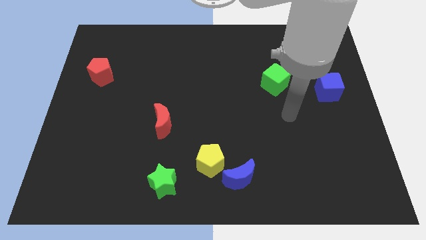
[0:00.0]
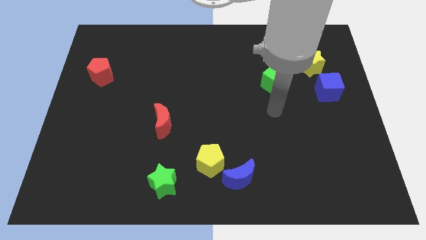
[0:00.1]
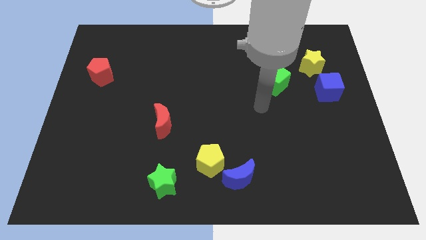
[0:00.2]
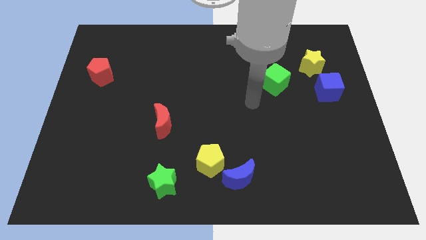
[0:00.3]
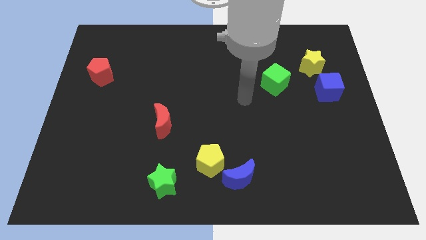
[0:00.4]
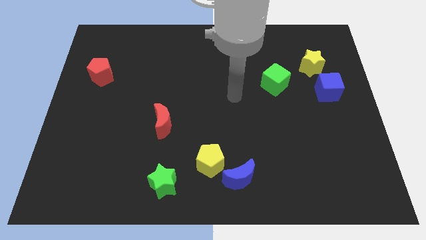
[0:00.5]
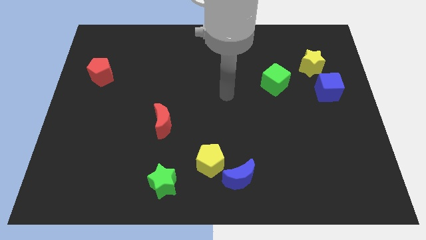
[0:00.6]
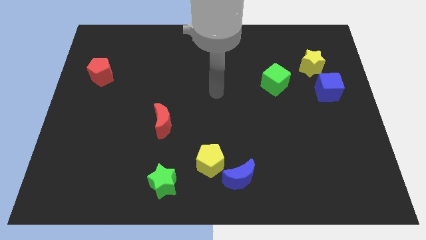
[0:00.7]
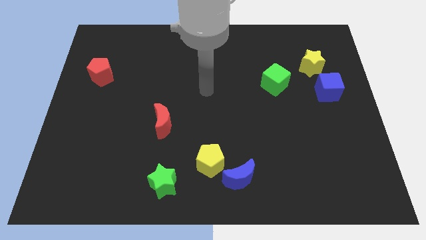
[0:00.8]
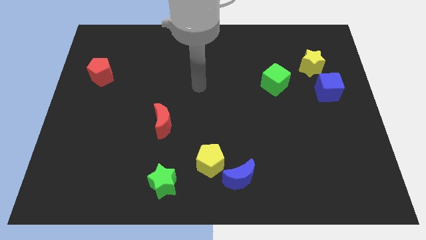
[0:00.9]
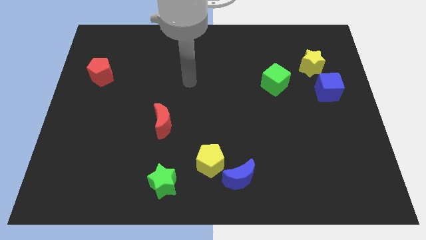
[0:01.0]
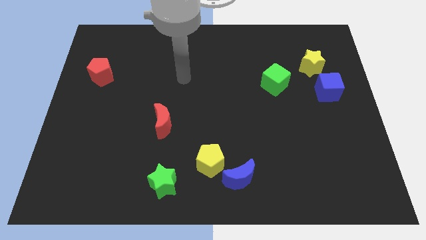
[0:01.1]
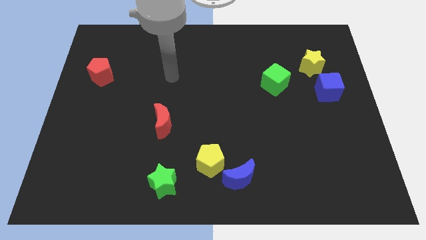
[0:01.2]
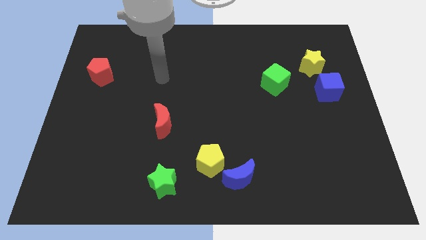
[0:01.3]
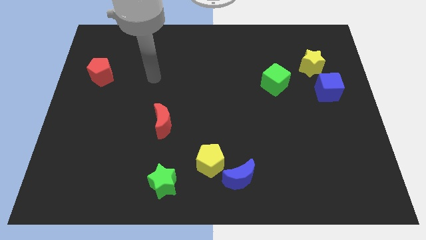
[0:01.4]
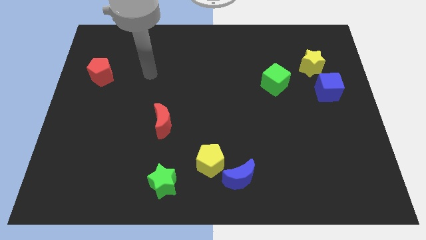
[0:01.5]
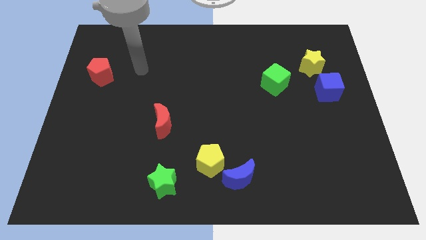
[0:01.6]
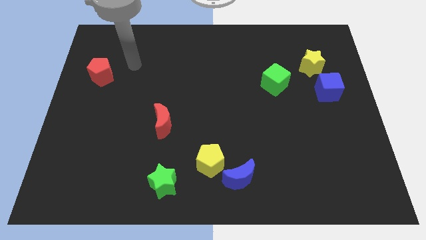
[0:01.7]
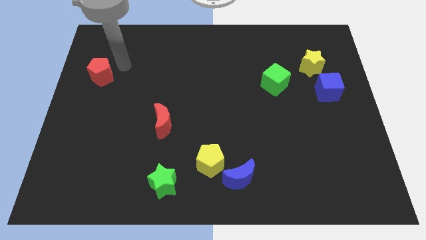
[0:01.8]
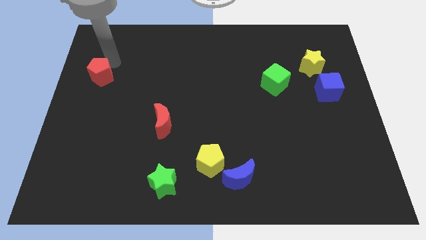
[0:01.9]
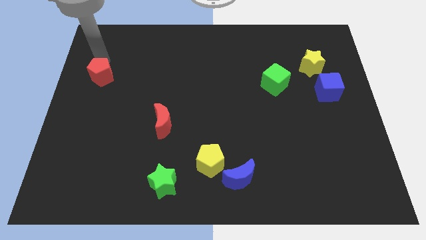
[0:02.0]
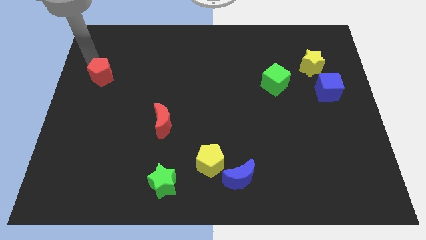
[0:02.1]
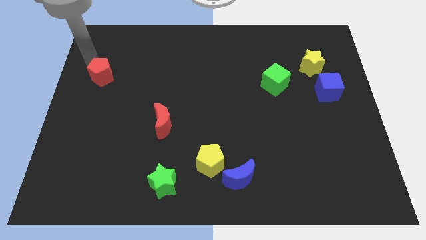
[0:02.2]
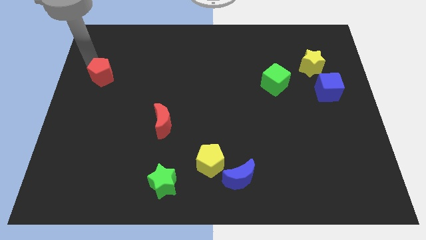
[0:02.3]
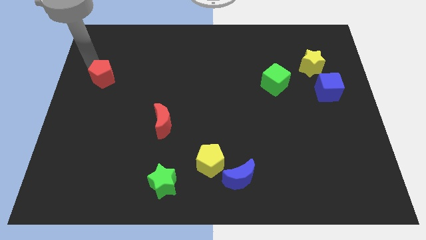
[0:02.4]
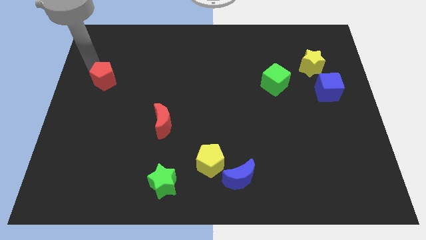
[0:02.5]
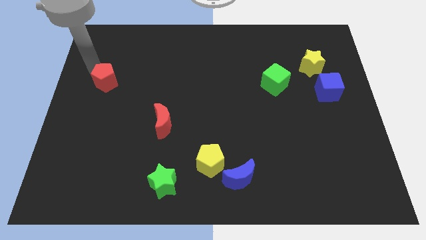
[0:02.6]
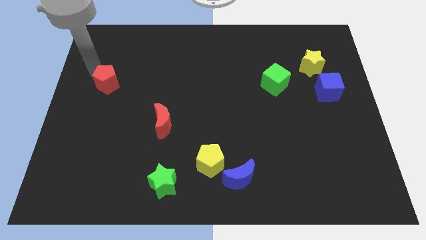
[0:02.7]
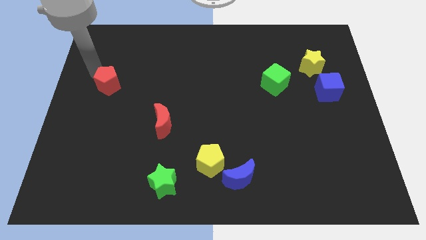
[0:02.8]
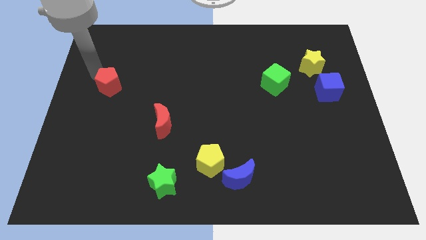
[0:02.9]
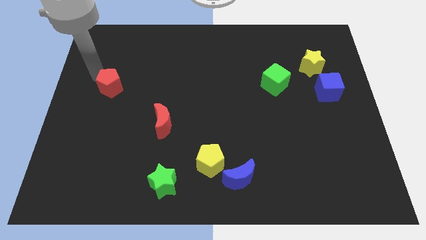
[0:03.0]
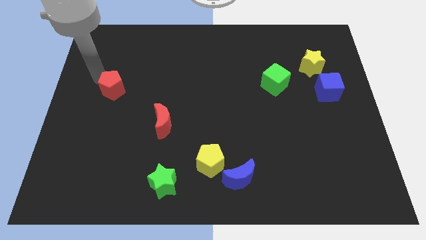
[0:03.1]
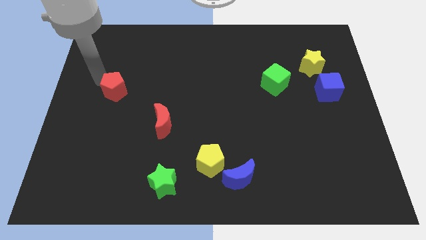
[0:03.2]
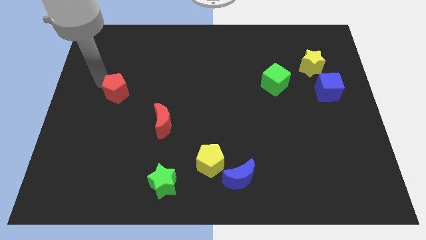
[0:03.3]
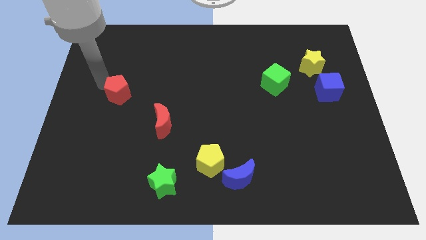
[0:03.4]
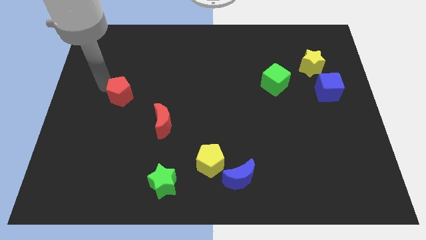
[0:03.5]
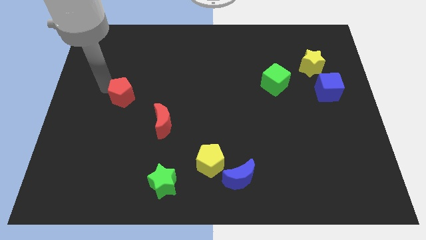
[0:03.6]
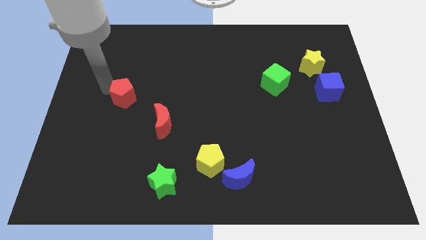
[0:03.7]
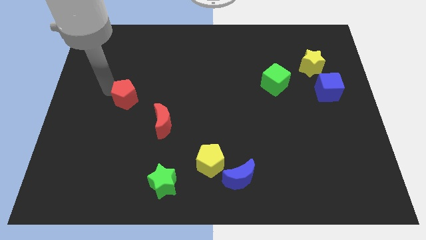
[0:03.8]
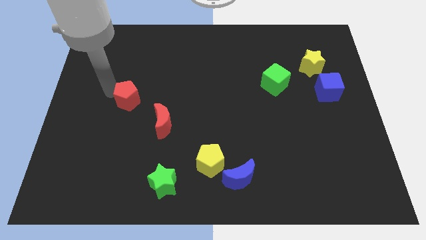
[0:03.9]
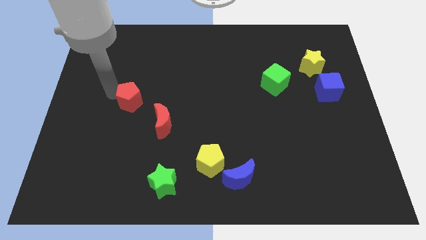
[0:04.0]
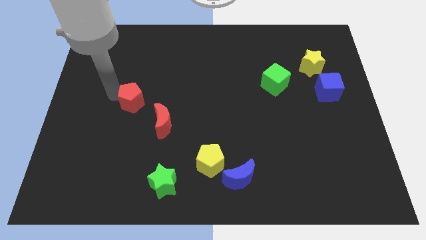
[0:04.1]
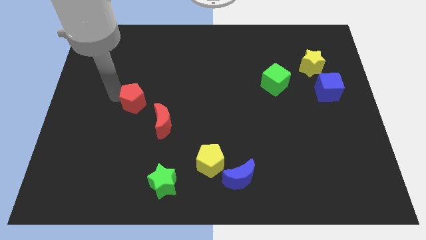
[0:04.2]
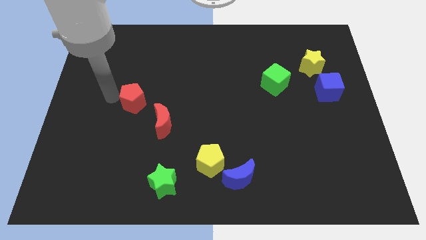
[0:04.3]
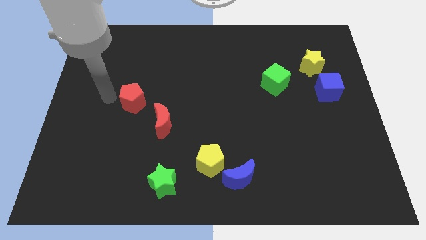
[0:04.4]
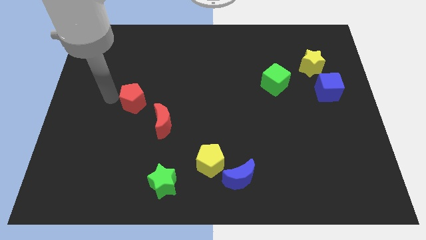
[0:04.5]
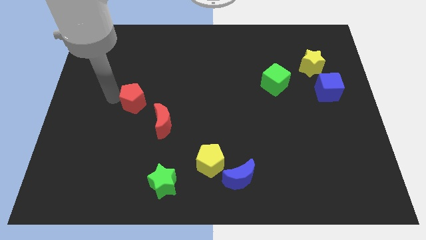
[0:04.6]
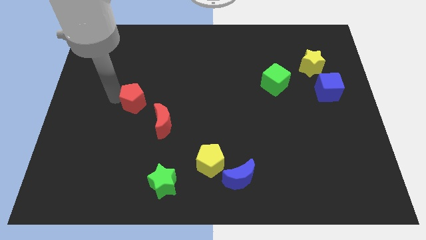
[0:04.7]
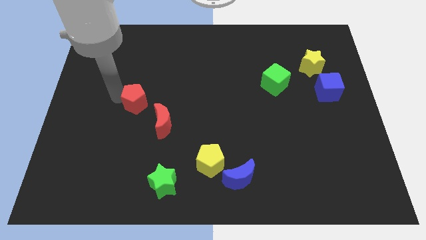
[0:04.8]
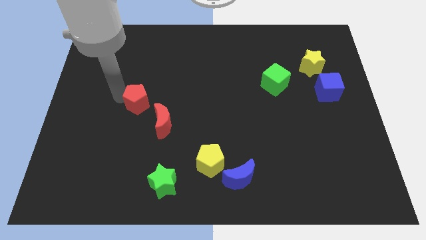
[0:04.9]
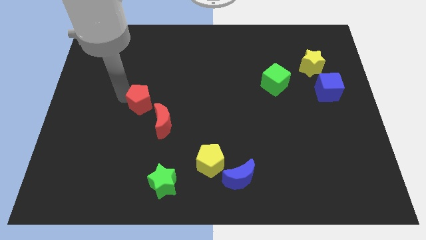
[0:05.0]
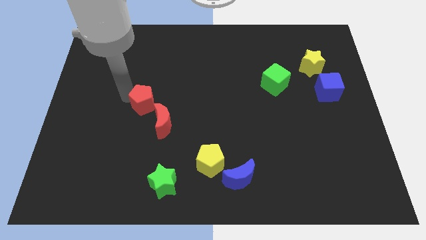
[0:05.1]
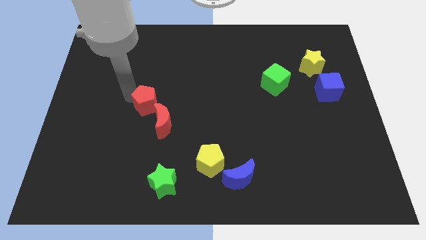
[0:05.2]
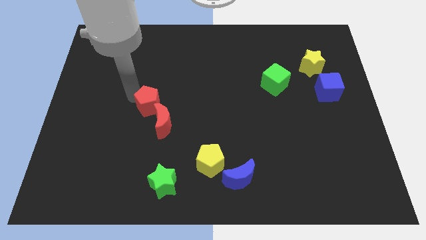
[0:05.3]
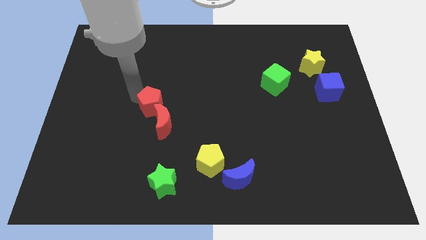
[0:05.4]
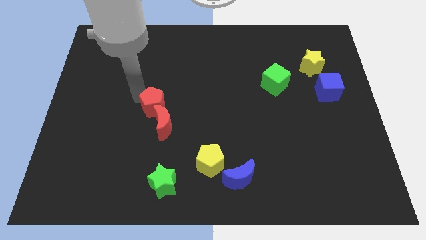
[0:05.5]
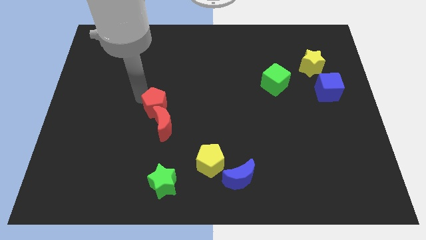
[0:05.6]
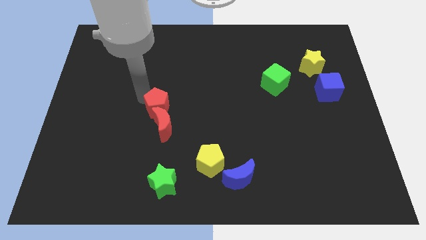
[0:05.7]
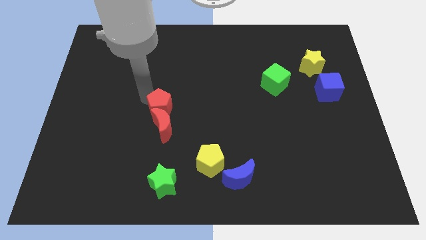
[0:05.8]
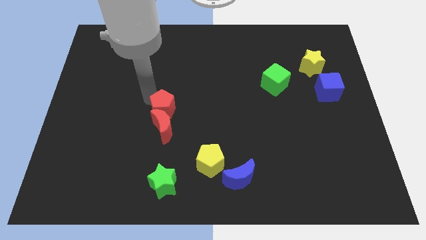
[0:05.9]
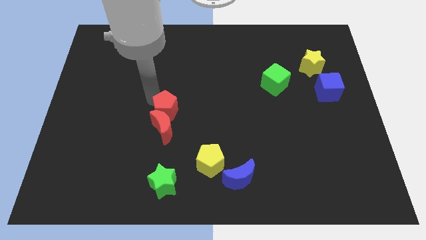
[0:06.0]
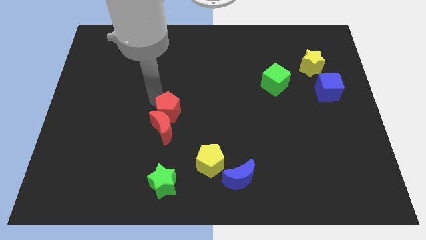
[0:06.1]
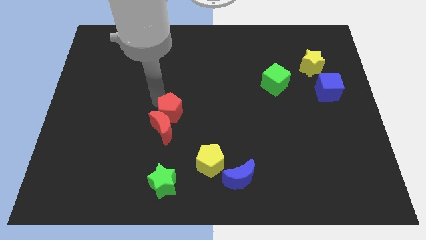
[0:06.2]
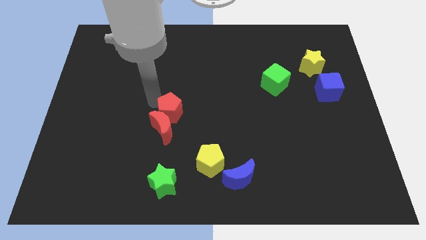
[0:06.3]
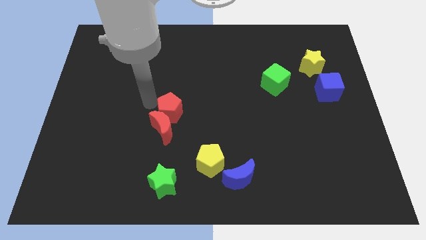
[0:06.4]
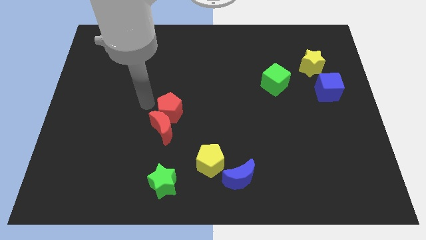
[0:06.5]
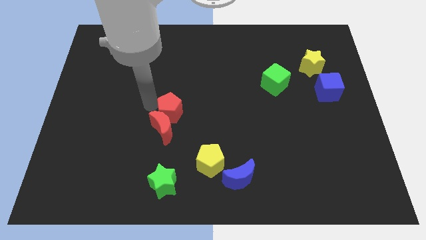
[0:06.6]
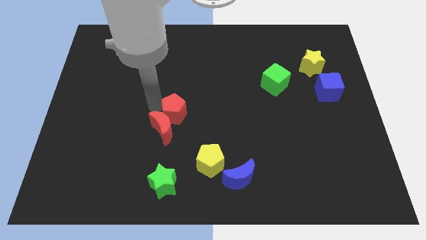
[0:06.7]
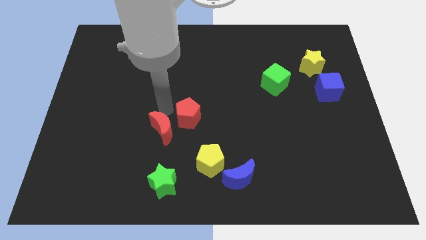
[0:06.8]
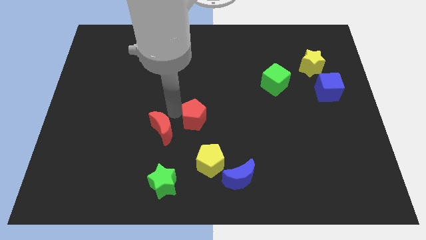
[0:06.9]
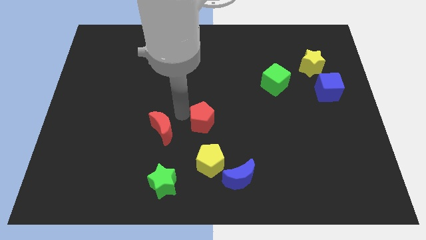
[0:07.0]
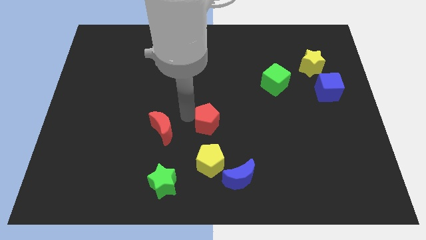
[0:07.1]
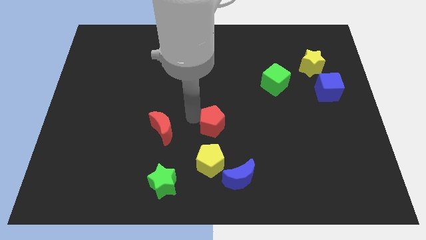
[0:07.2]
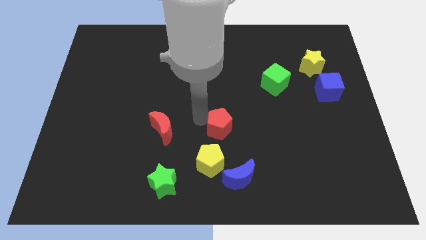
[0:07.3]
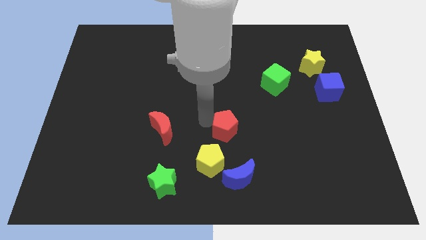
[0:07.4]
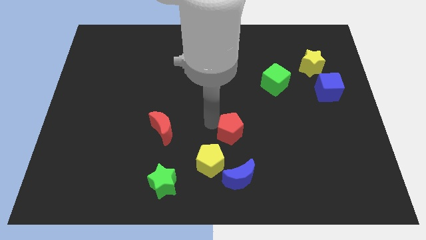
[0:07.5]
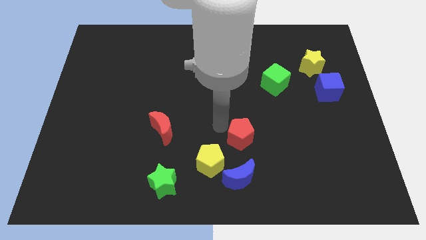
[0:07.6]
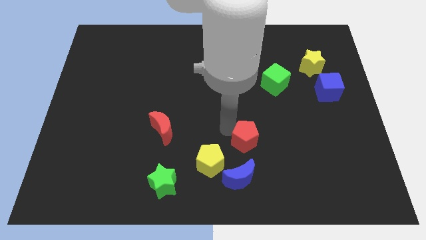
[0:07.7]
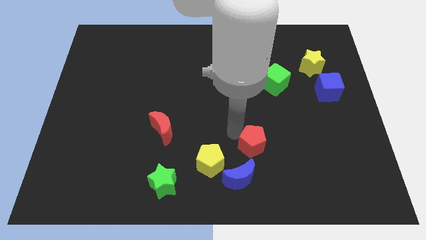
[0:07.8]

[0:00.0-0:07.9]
push the red pentagon to the top right of the blue moon
